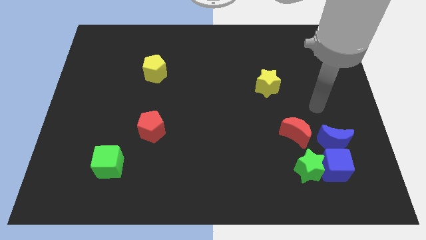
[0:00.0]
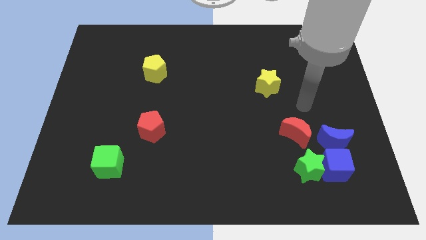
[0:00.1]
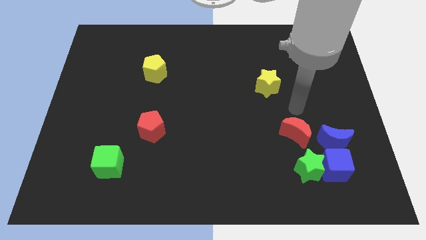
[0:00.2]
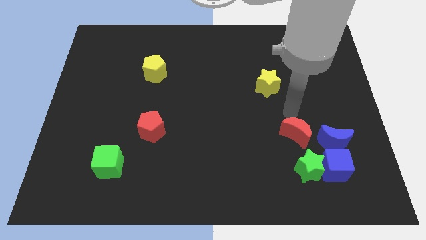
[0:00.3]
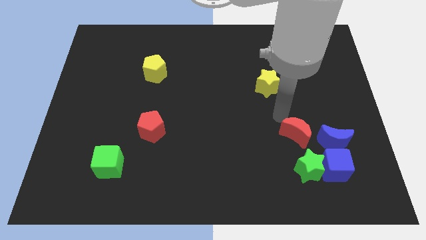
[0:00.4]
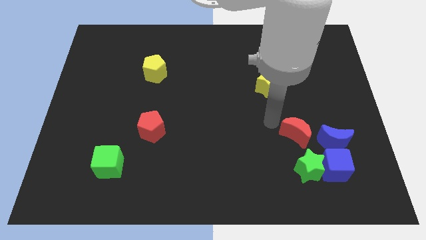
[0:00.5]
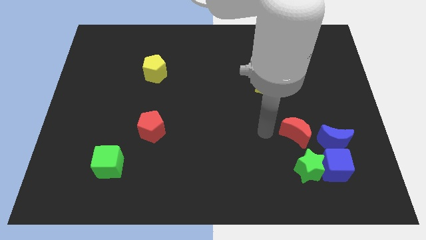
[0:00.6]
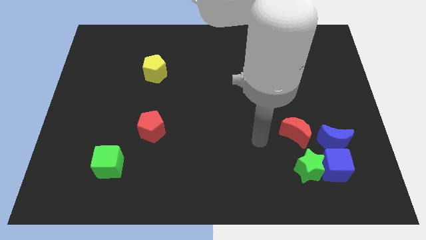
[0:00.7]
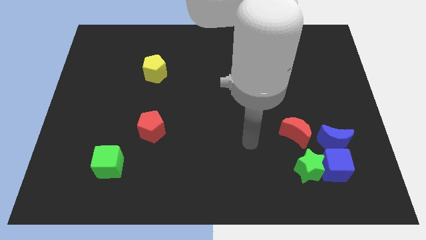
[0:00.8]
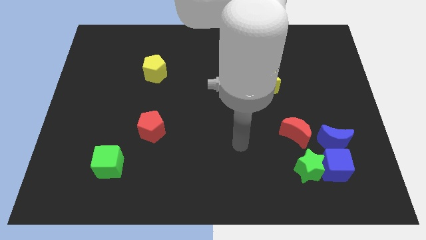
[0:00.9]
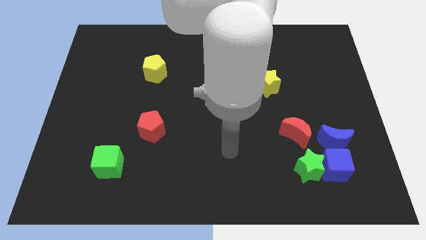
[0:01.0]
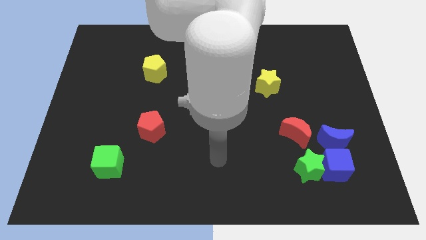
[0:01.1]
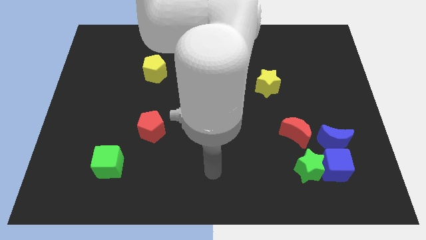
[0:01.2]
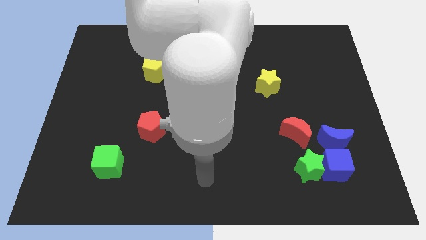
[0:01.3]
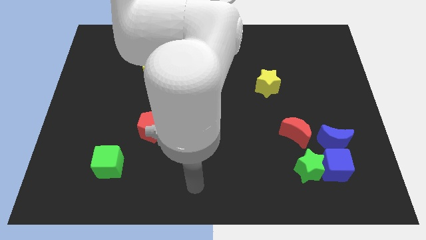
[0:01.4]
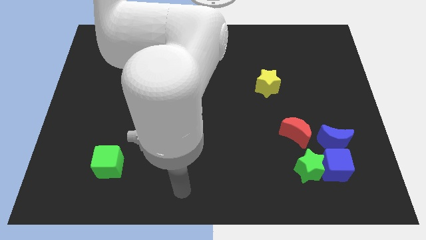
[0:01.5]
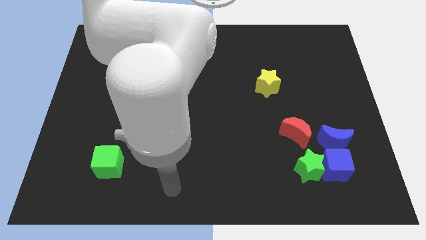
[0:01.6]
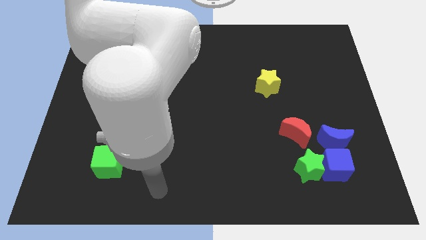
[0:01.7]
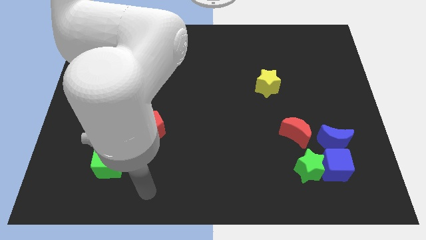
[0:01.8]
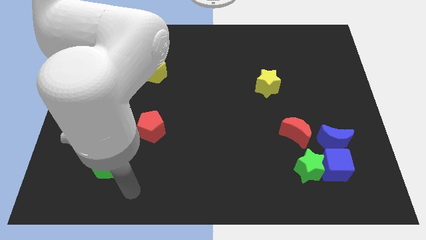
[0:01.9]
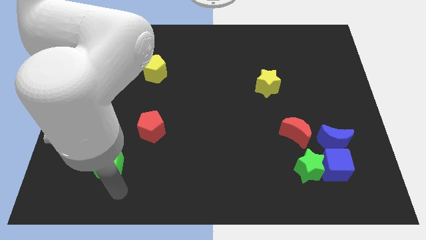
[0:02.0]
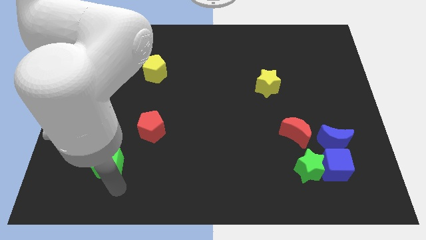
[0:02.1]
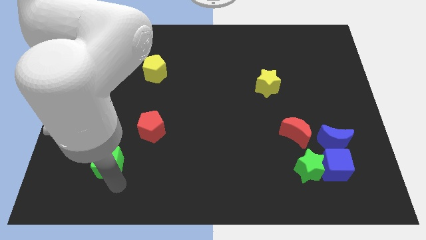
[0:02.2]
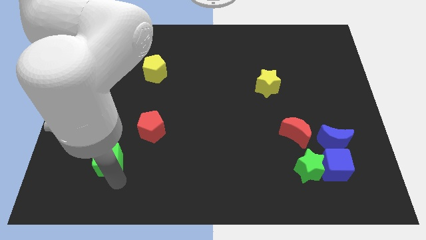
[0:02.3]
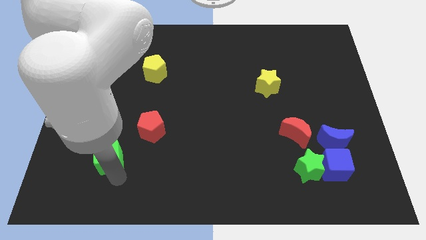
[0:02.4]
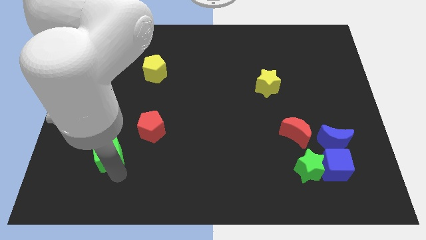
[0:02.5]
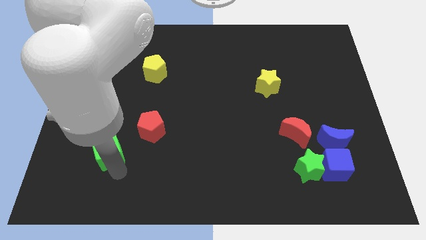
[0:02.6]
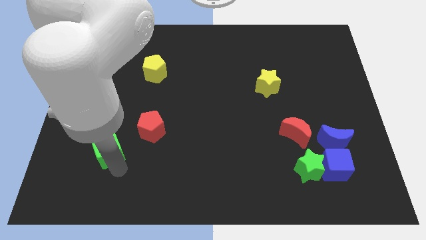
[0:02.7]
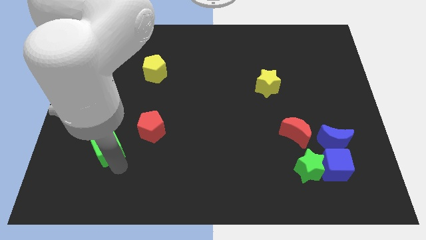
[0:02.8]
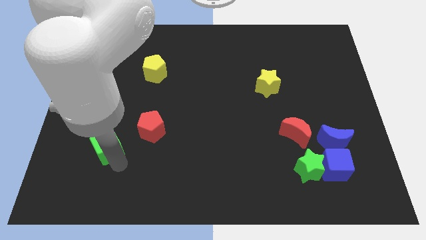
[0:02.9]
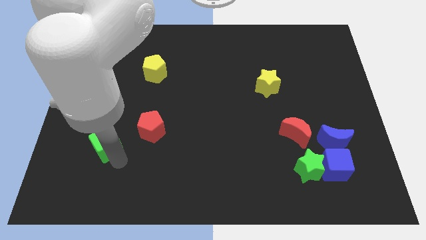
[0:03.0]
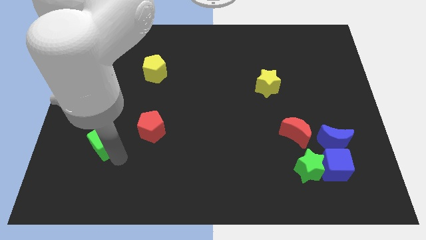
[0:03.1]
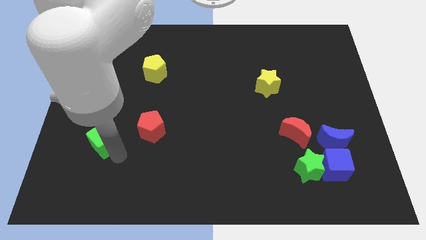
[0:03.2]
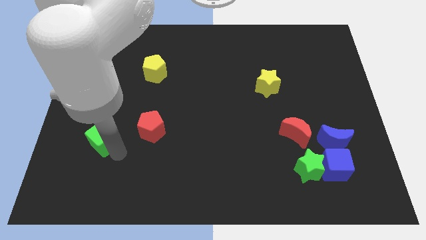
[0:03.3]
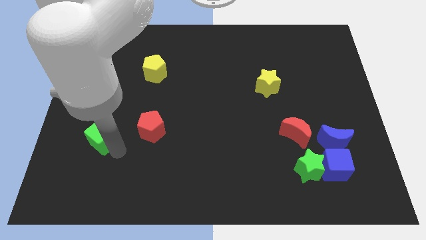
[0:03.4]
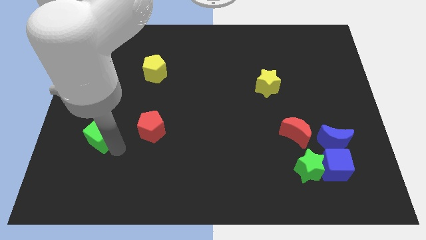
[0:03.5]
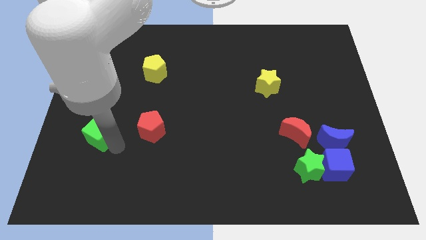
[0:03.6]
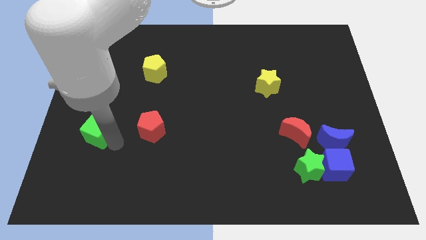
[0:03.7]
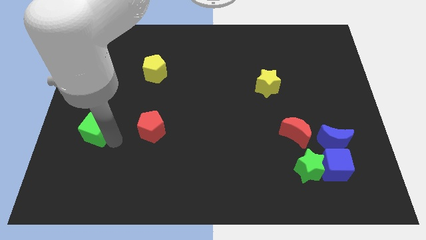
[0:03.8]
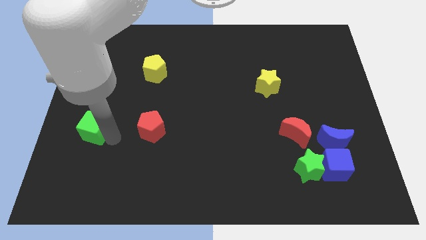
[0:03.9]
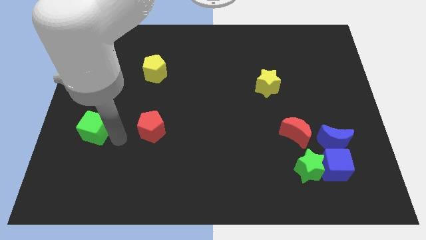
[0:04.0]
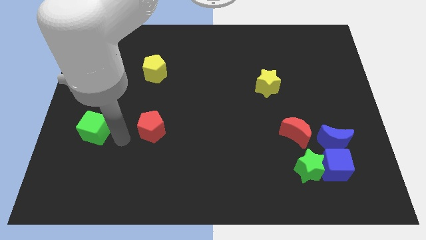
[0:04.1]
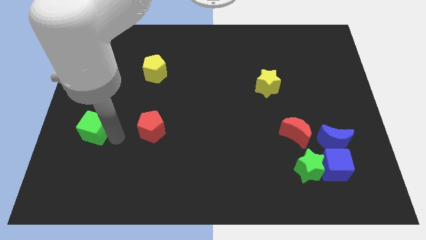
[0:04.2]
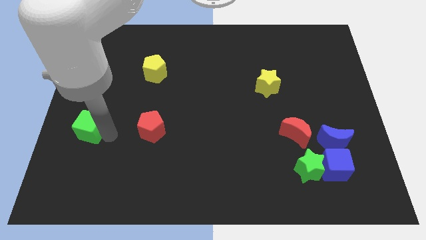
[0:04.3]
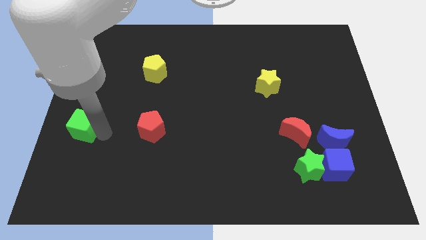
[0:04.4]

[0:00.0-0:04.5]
move the green cube to the left side of the board

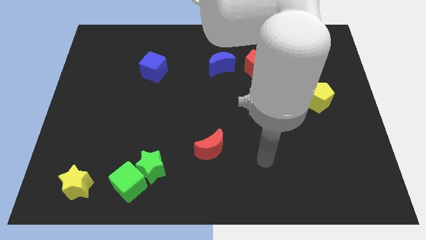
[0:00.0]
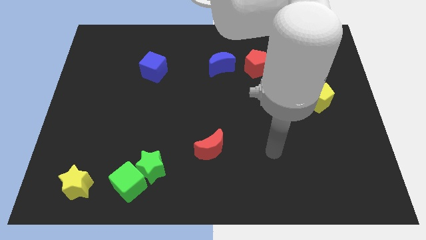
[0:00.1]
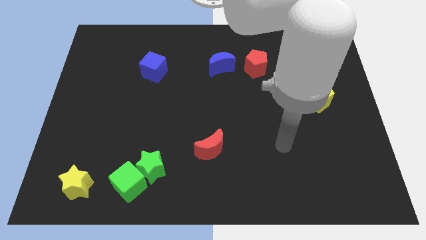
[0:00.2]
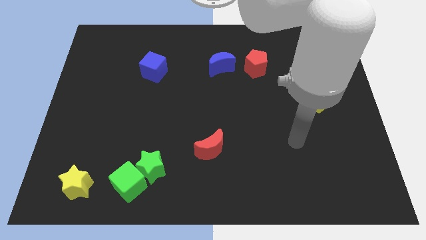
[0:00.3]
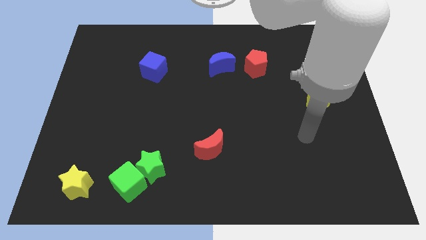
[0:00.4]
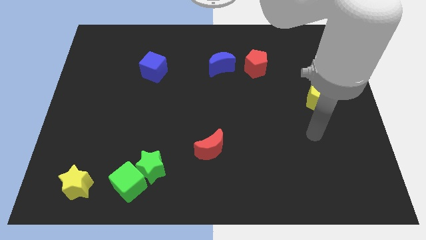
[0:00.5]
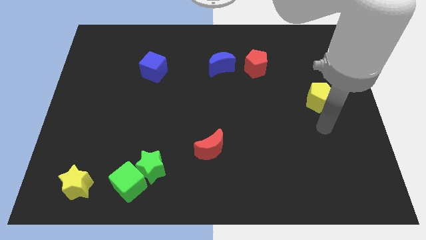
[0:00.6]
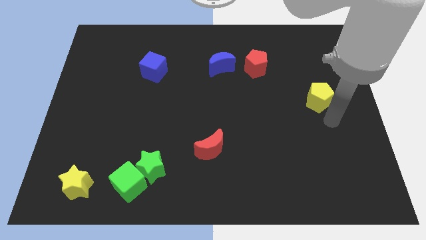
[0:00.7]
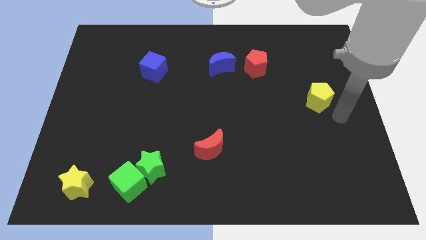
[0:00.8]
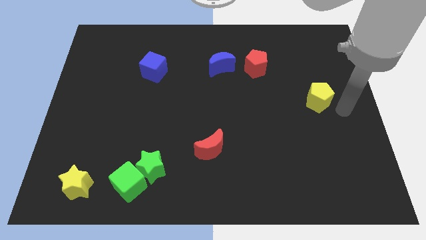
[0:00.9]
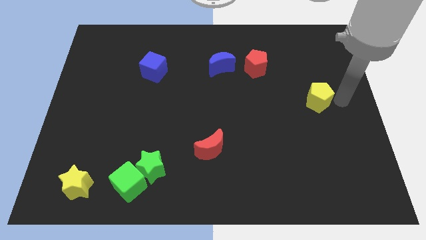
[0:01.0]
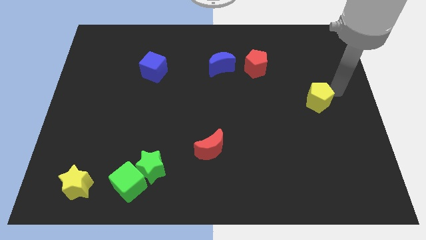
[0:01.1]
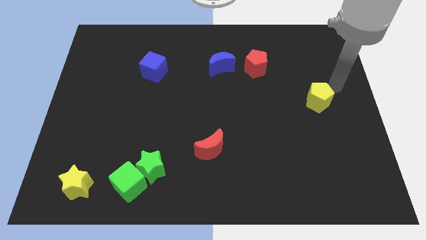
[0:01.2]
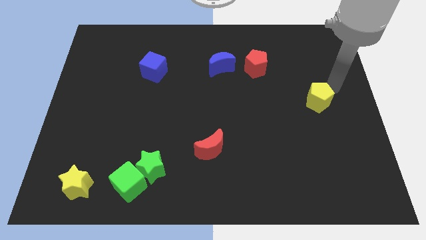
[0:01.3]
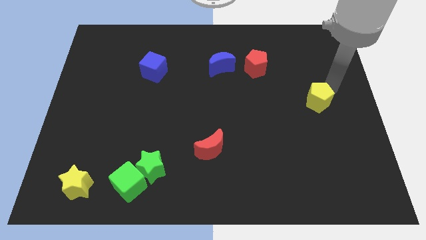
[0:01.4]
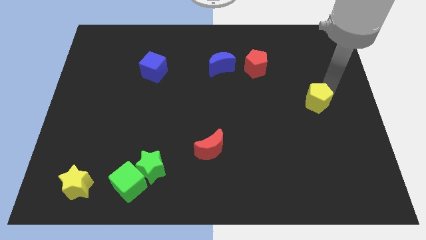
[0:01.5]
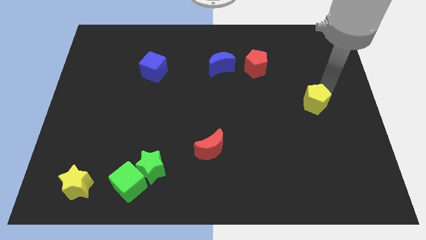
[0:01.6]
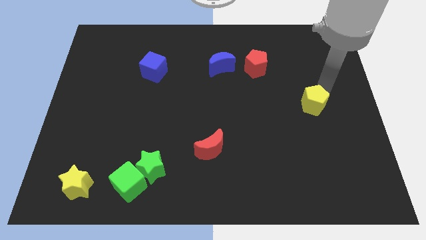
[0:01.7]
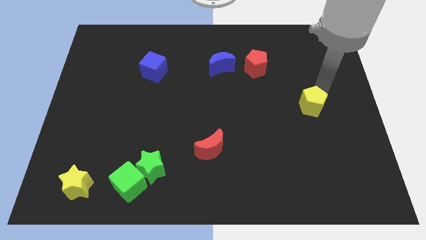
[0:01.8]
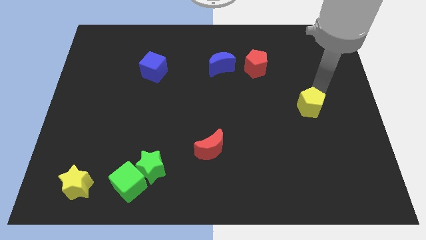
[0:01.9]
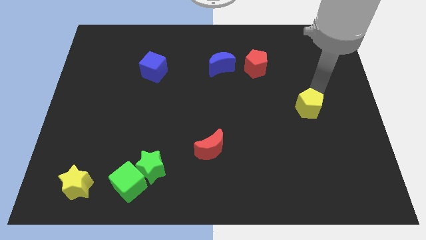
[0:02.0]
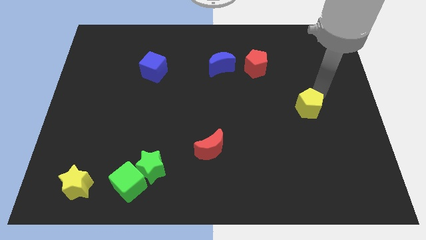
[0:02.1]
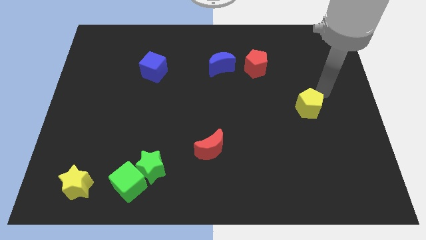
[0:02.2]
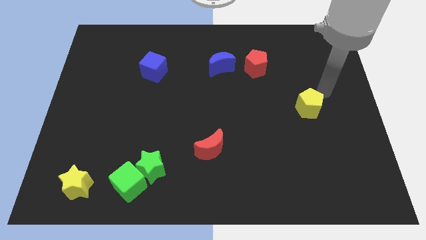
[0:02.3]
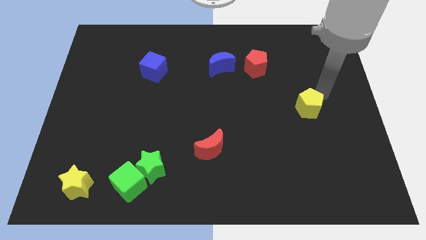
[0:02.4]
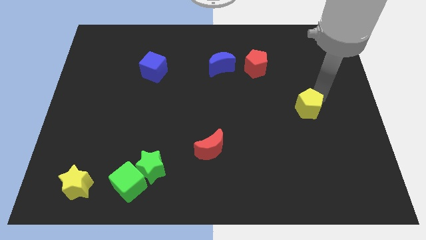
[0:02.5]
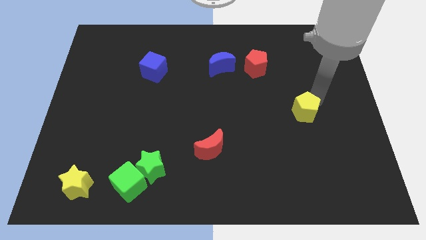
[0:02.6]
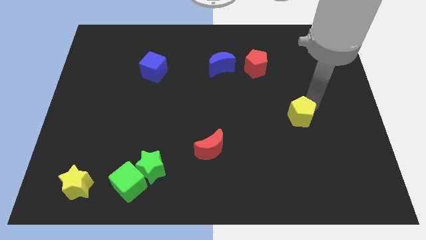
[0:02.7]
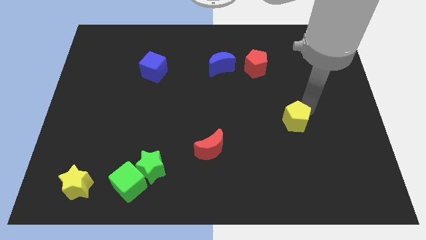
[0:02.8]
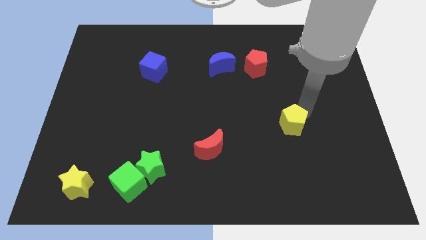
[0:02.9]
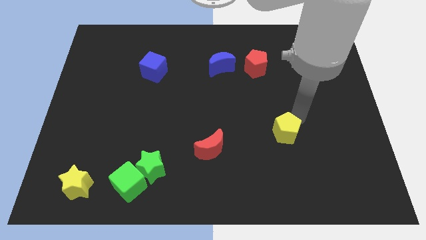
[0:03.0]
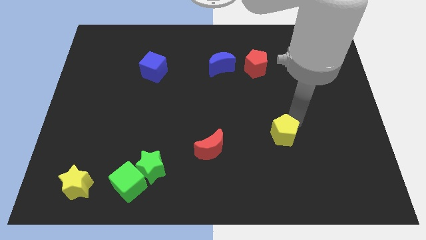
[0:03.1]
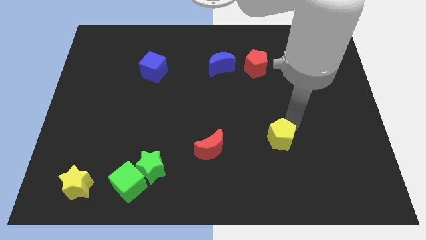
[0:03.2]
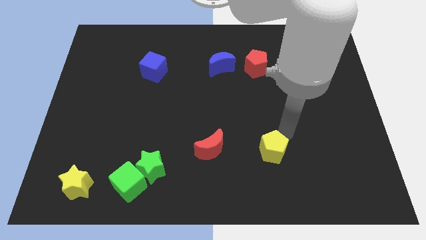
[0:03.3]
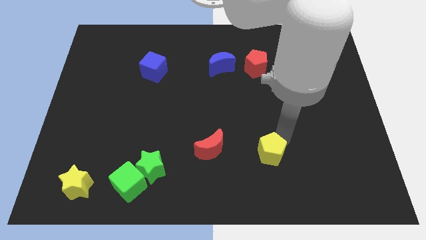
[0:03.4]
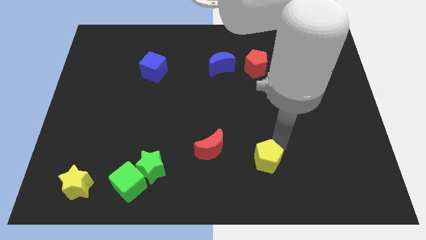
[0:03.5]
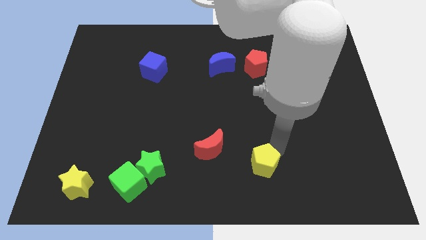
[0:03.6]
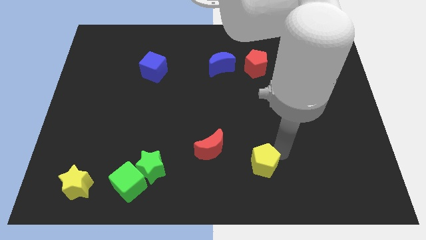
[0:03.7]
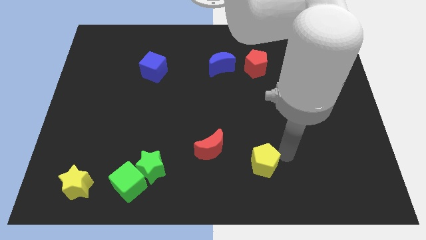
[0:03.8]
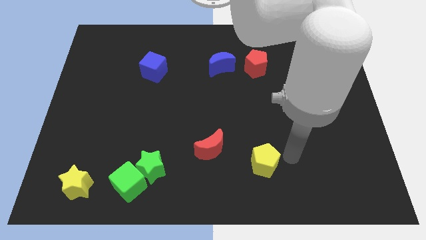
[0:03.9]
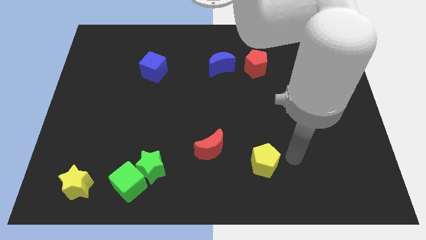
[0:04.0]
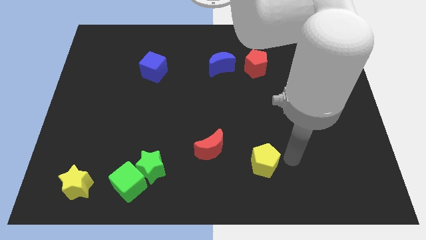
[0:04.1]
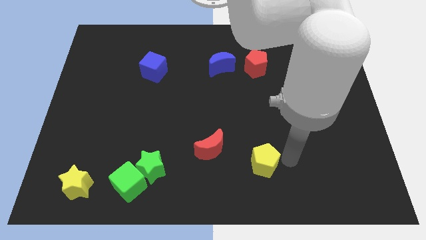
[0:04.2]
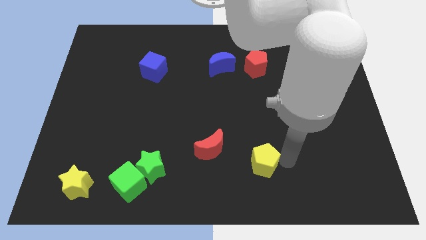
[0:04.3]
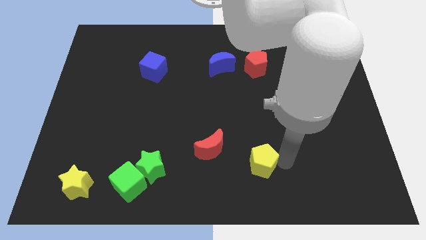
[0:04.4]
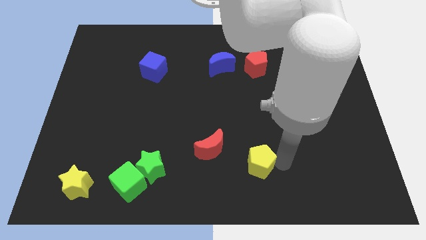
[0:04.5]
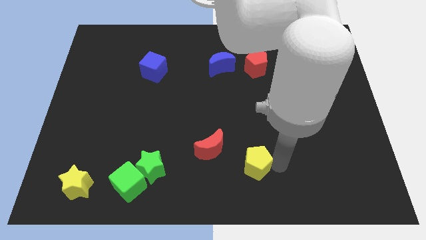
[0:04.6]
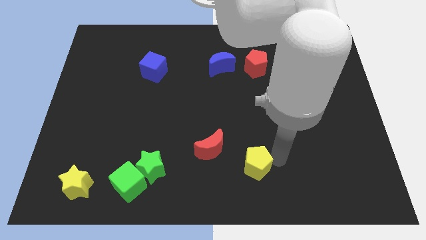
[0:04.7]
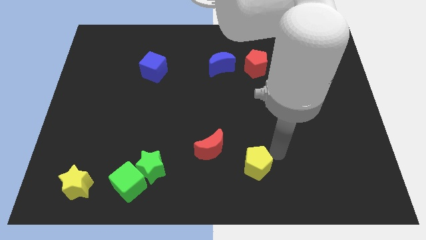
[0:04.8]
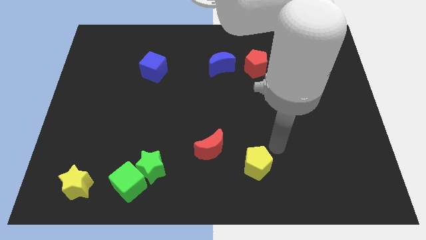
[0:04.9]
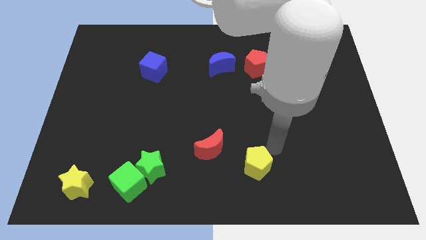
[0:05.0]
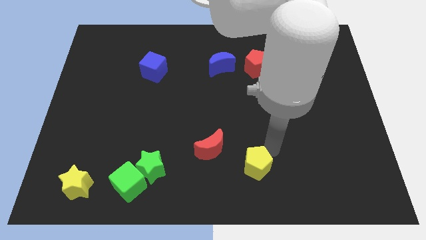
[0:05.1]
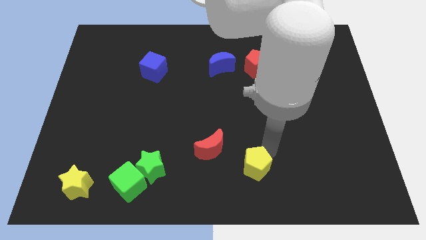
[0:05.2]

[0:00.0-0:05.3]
move the yellow pentagon to the bottom
